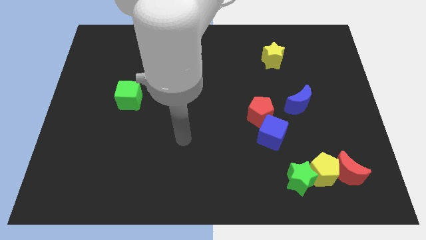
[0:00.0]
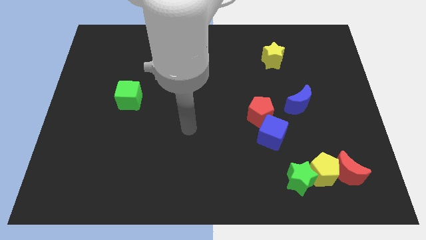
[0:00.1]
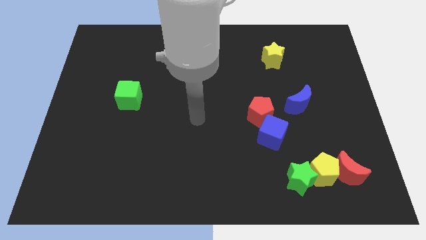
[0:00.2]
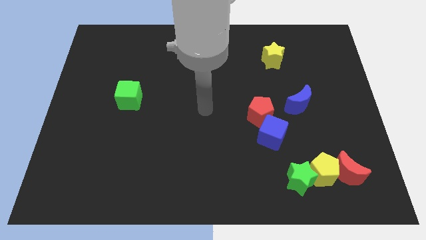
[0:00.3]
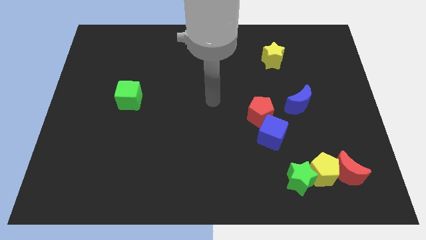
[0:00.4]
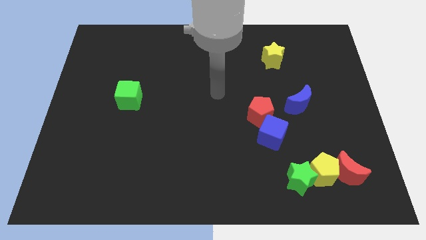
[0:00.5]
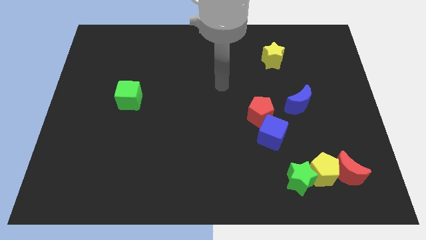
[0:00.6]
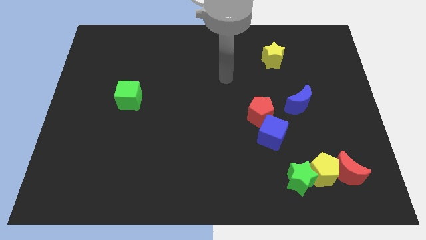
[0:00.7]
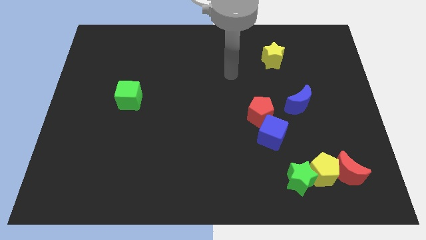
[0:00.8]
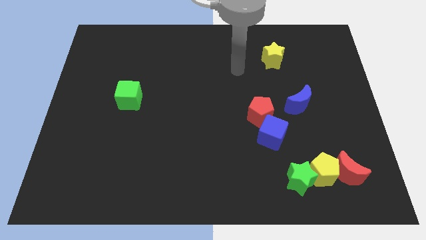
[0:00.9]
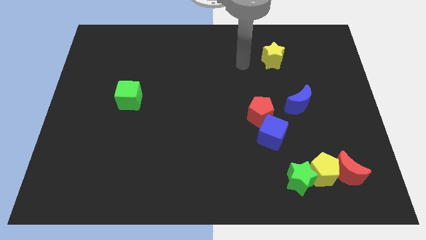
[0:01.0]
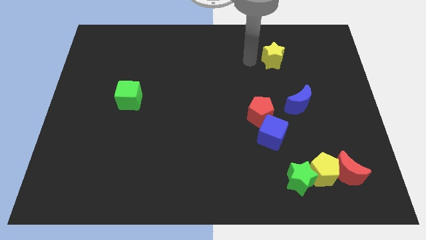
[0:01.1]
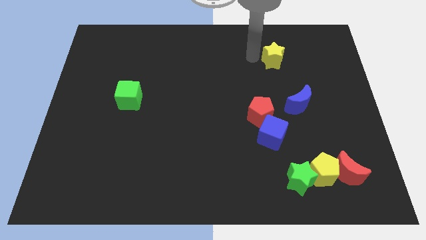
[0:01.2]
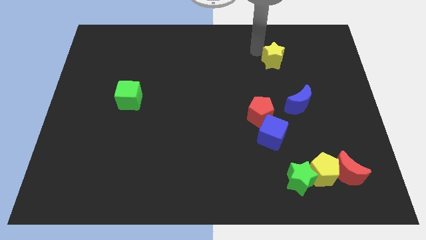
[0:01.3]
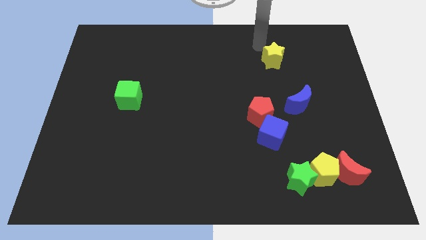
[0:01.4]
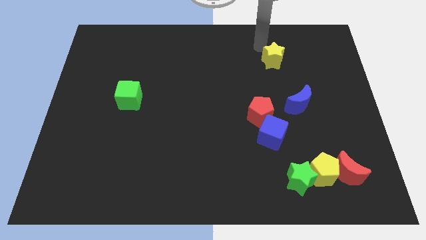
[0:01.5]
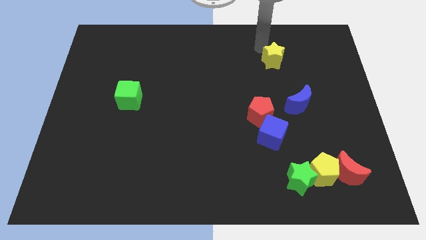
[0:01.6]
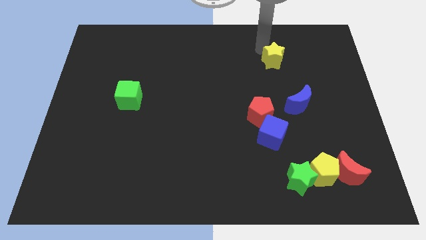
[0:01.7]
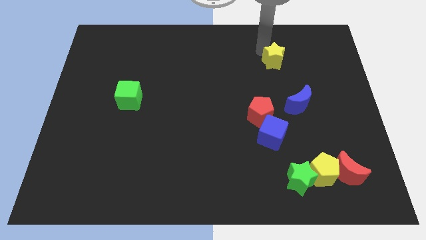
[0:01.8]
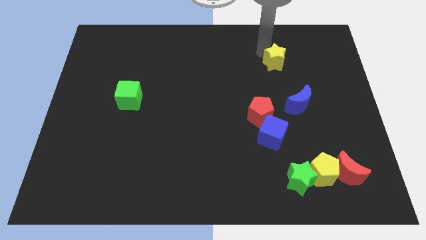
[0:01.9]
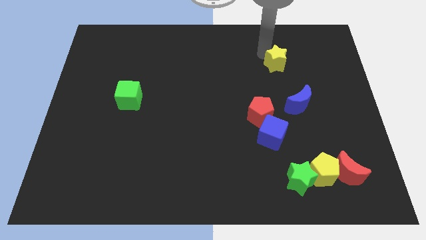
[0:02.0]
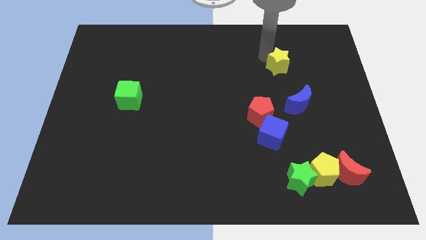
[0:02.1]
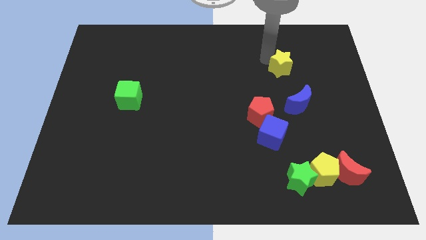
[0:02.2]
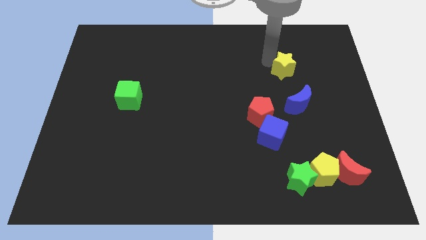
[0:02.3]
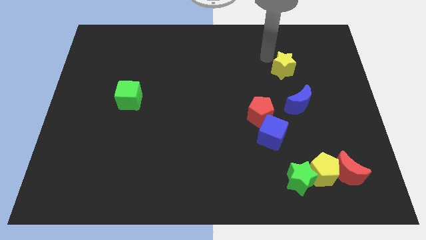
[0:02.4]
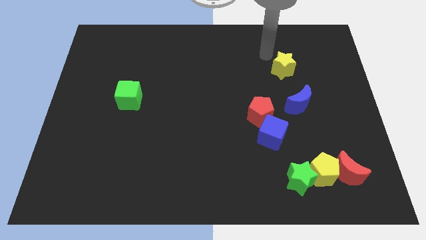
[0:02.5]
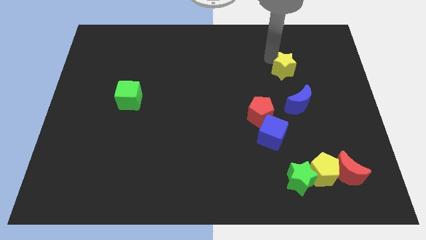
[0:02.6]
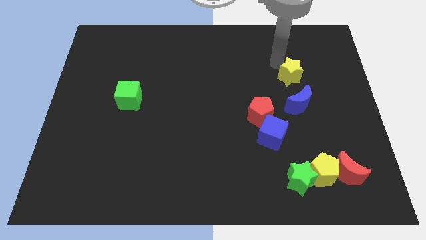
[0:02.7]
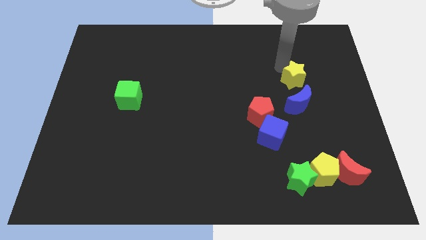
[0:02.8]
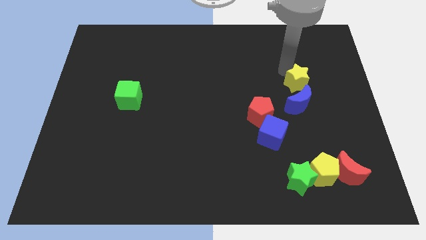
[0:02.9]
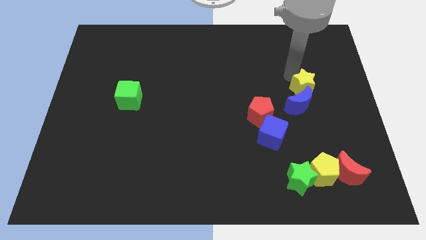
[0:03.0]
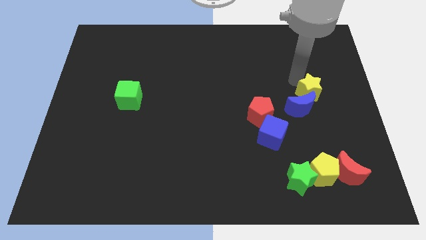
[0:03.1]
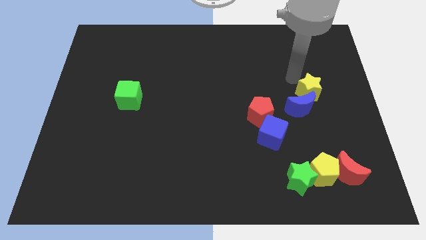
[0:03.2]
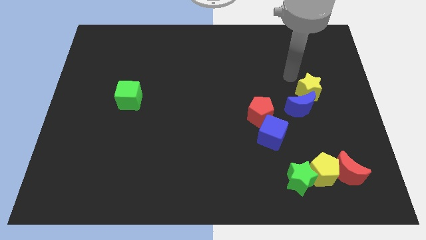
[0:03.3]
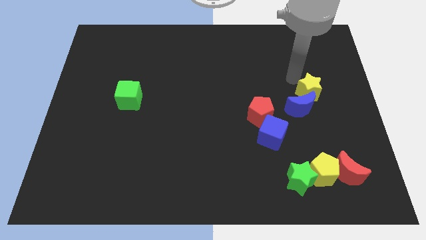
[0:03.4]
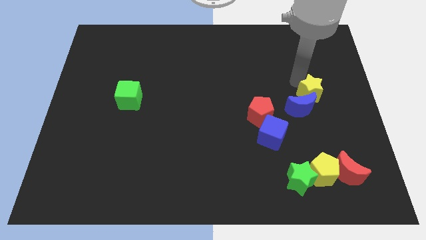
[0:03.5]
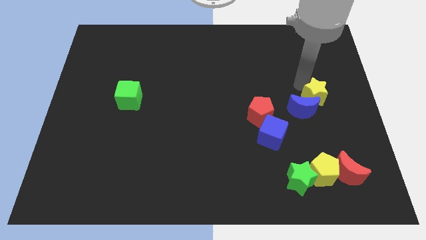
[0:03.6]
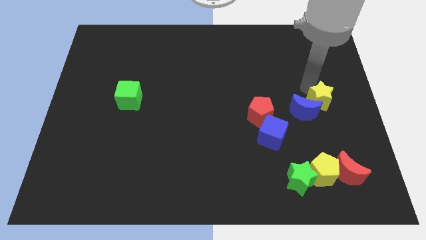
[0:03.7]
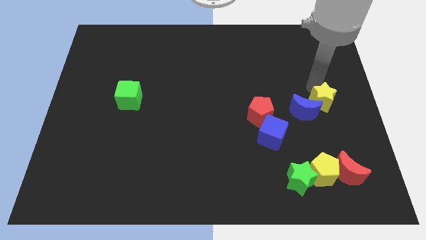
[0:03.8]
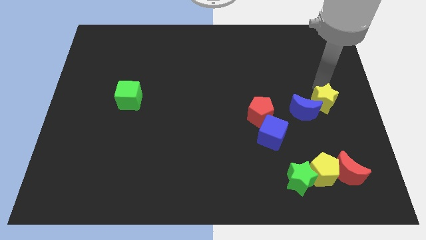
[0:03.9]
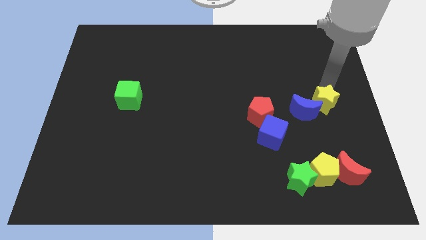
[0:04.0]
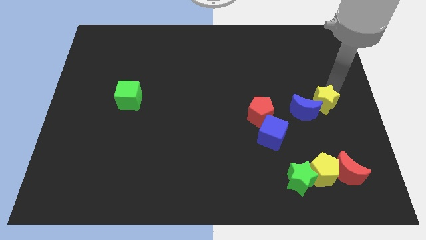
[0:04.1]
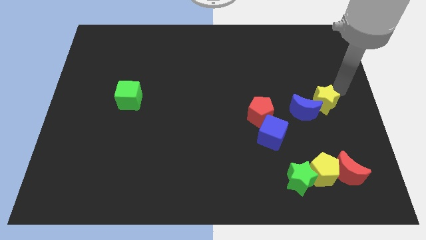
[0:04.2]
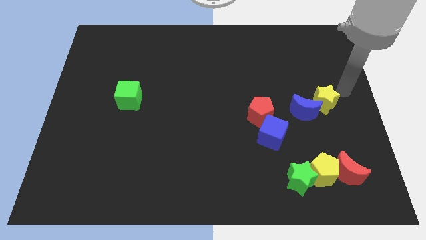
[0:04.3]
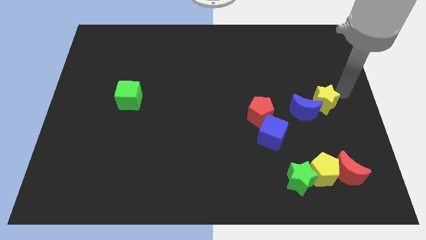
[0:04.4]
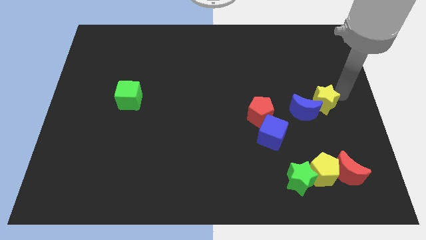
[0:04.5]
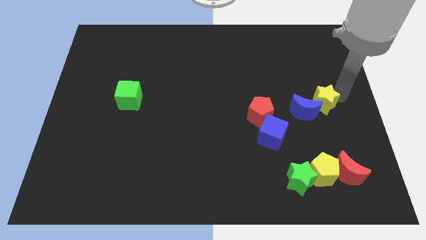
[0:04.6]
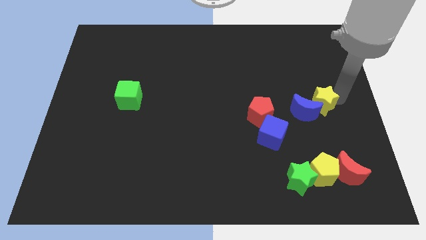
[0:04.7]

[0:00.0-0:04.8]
put the yellow star right of the red pentagon

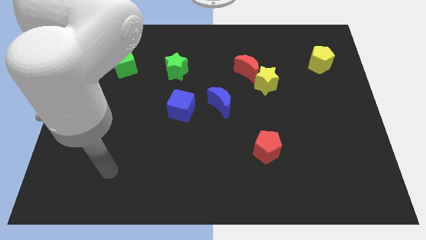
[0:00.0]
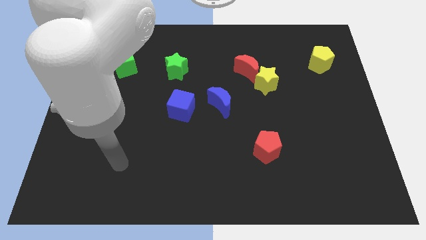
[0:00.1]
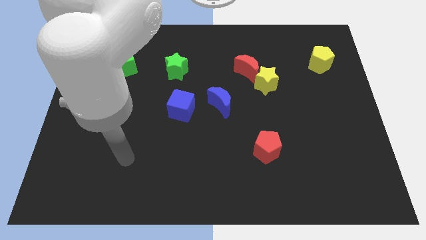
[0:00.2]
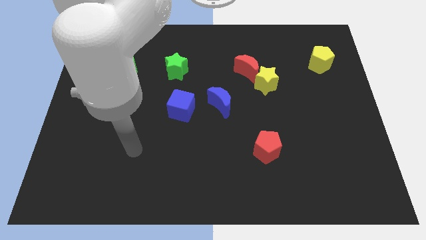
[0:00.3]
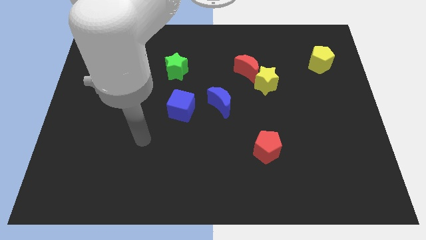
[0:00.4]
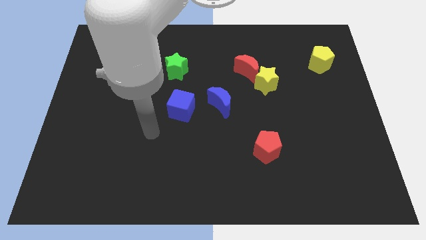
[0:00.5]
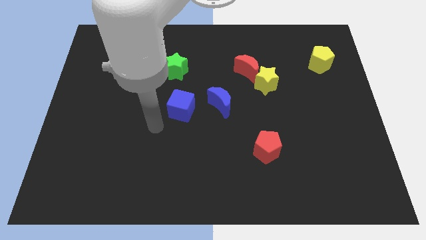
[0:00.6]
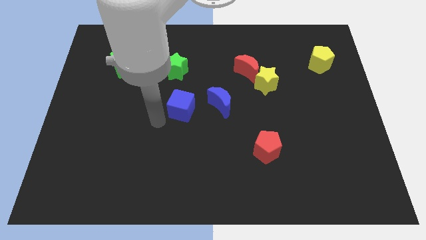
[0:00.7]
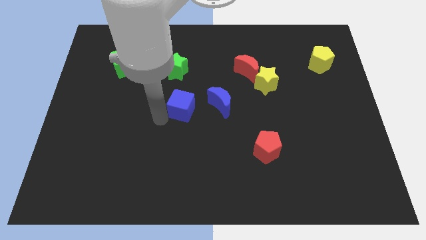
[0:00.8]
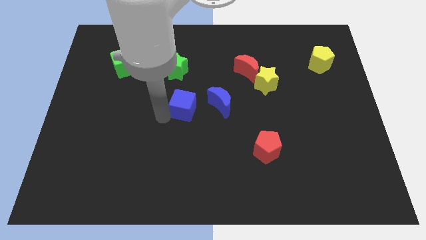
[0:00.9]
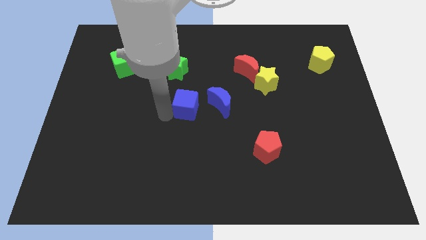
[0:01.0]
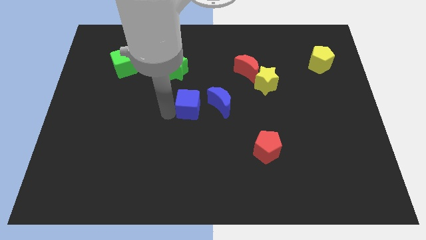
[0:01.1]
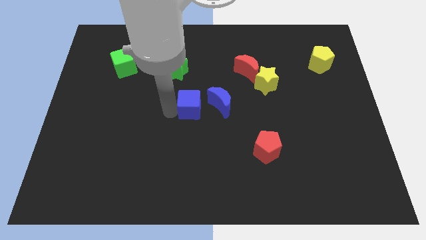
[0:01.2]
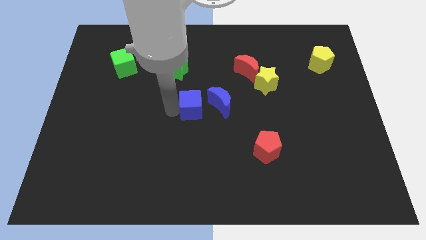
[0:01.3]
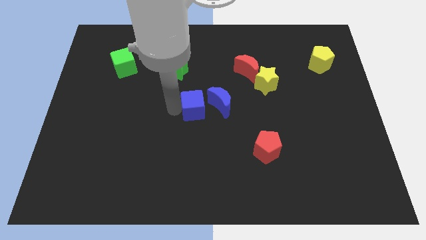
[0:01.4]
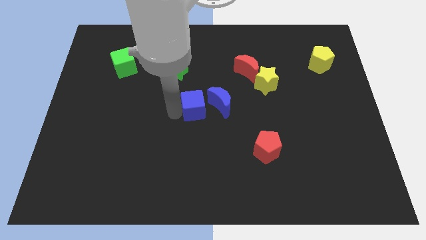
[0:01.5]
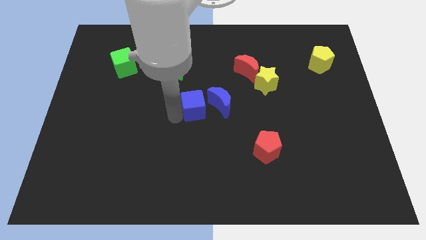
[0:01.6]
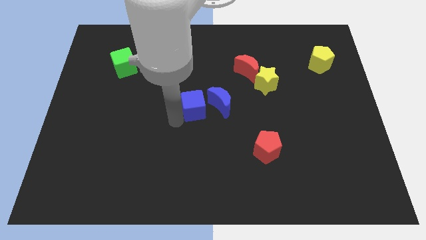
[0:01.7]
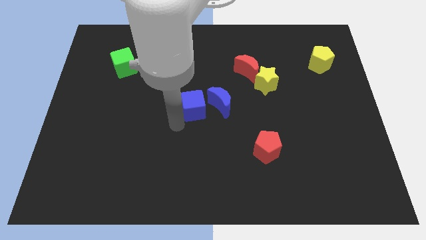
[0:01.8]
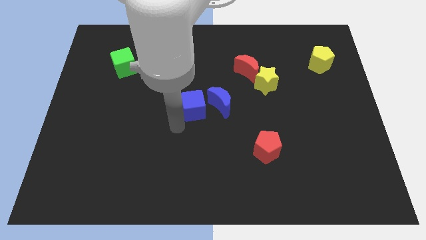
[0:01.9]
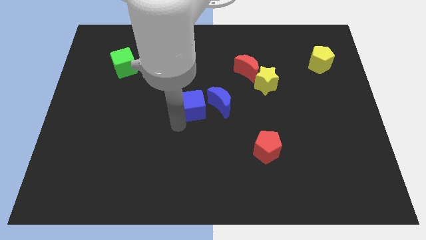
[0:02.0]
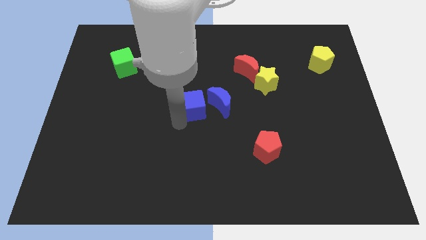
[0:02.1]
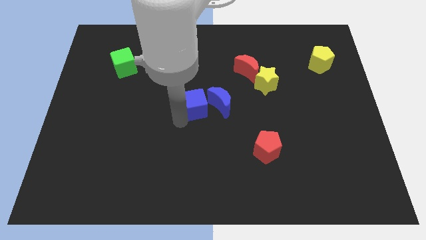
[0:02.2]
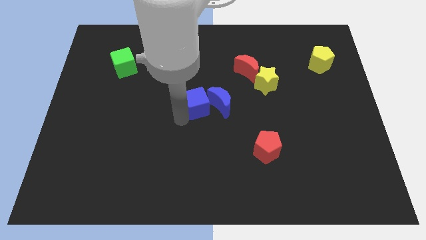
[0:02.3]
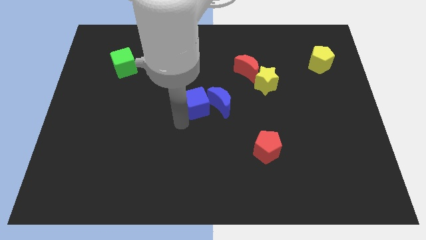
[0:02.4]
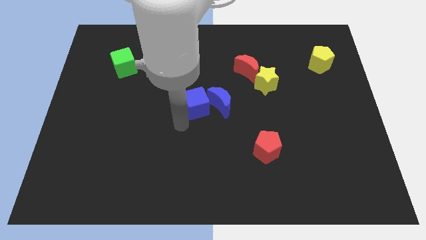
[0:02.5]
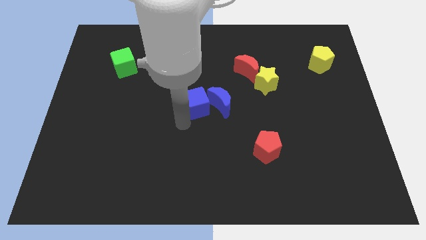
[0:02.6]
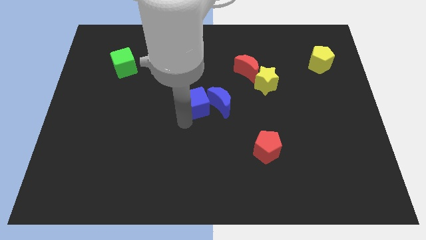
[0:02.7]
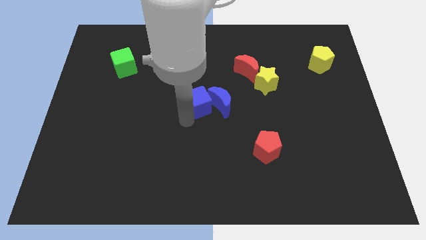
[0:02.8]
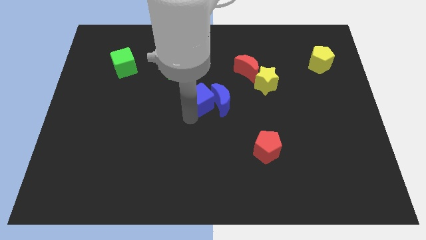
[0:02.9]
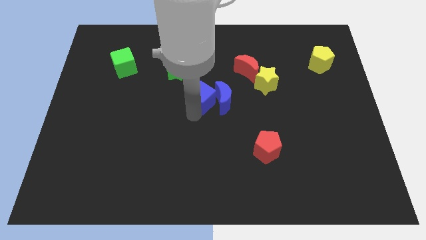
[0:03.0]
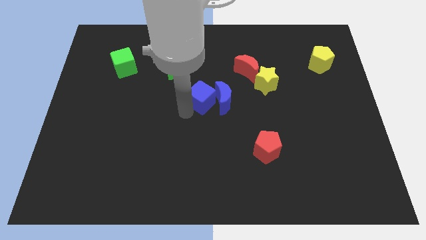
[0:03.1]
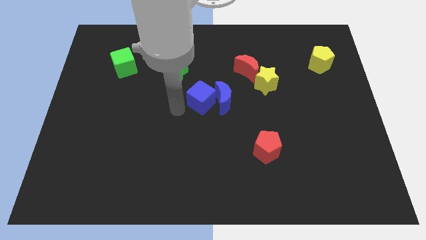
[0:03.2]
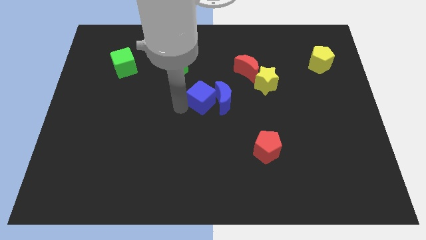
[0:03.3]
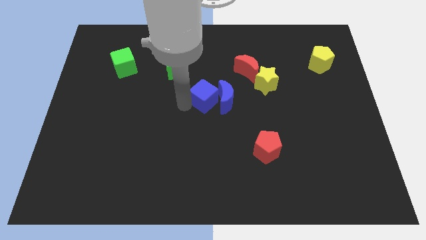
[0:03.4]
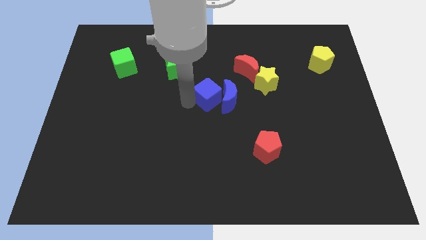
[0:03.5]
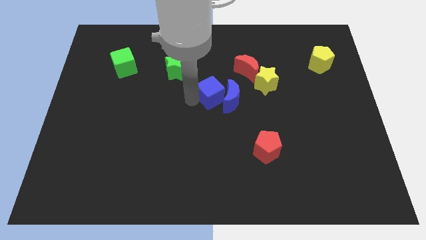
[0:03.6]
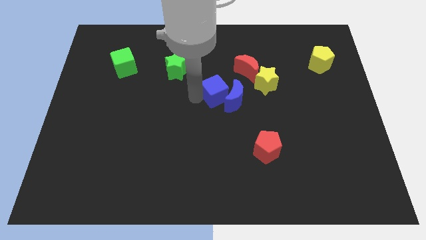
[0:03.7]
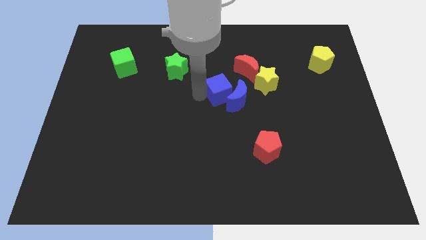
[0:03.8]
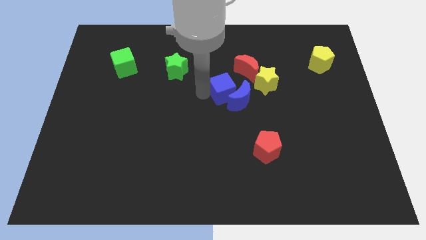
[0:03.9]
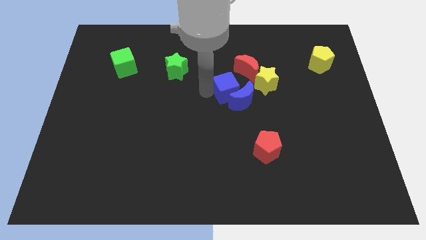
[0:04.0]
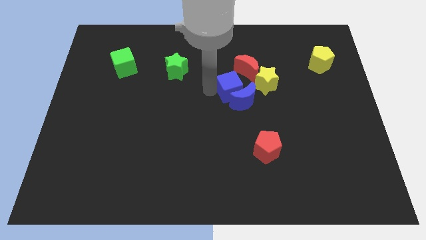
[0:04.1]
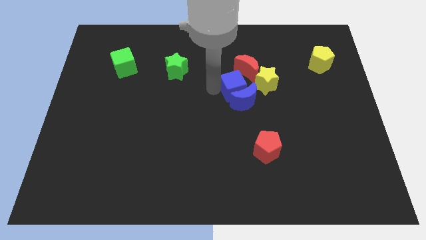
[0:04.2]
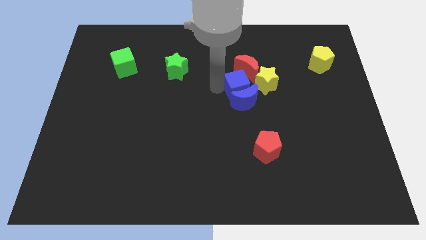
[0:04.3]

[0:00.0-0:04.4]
move the blue cube diagonally up and to the right of the blue moon
